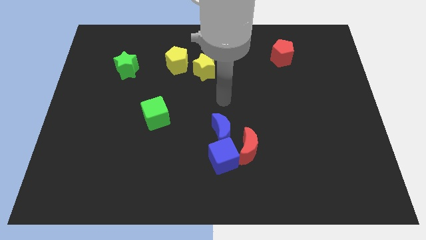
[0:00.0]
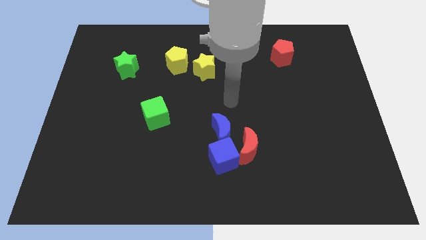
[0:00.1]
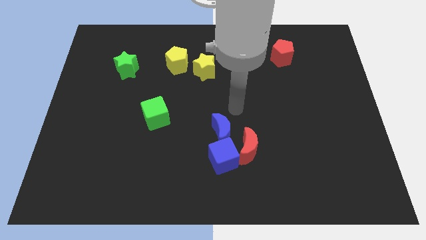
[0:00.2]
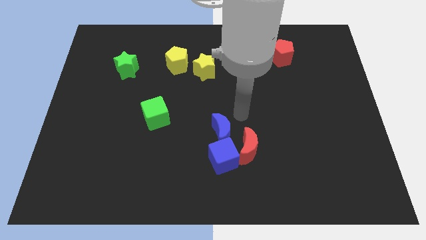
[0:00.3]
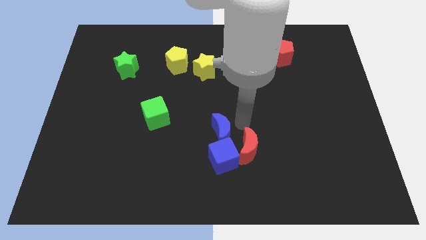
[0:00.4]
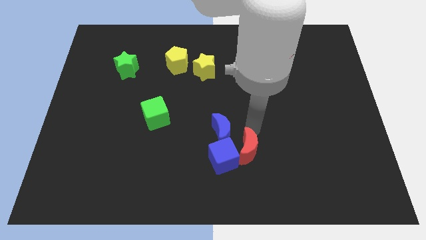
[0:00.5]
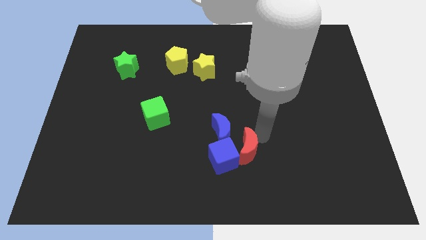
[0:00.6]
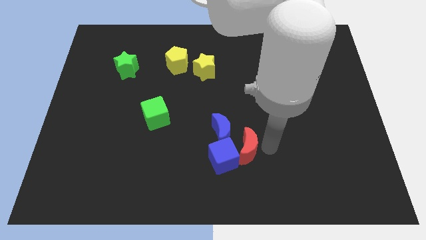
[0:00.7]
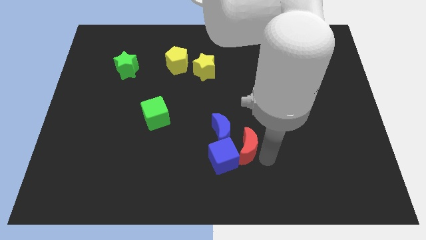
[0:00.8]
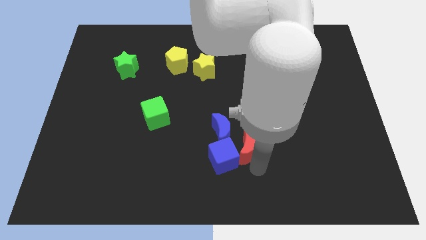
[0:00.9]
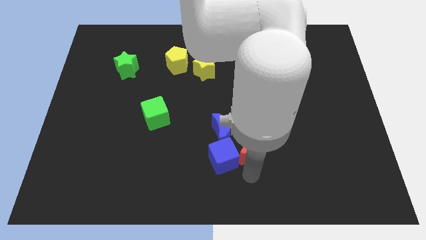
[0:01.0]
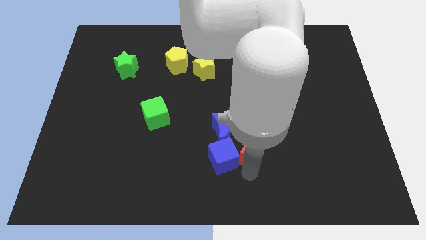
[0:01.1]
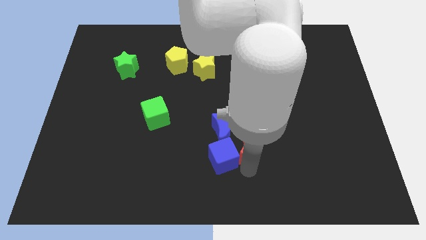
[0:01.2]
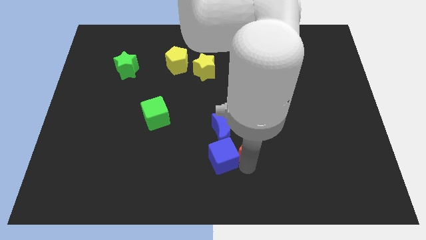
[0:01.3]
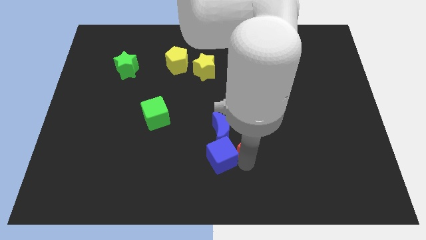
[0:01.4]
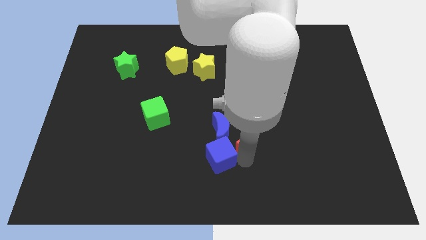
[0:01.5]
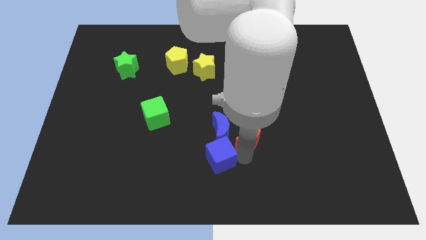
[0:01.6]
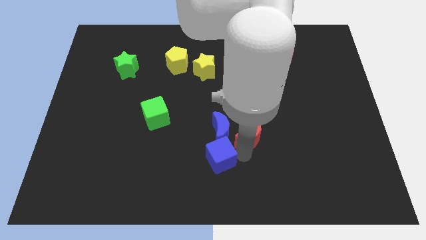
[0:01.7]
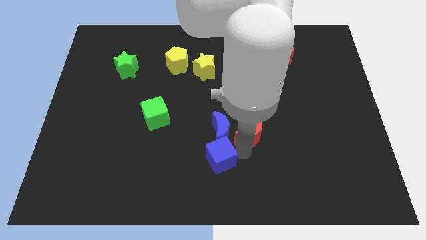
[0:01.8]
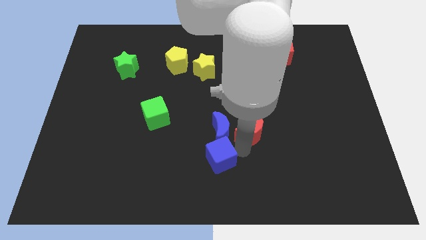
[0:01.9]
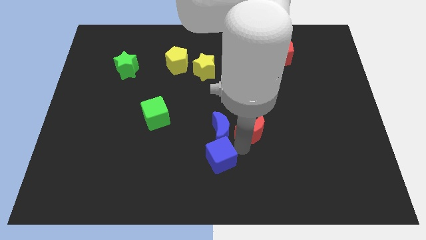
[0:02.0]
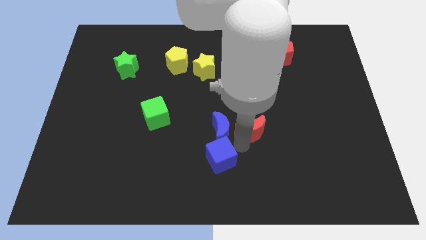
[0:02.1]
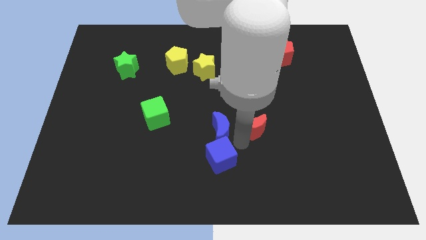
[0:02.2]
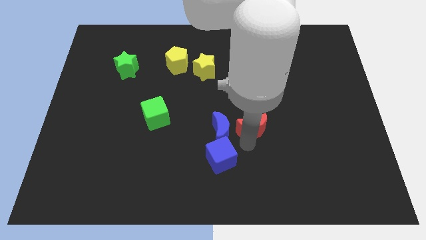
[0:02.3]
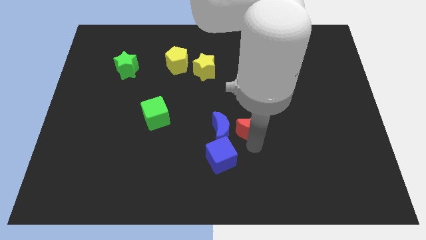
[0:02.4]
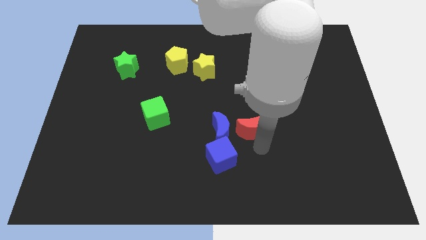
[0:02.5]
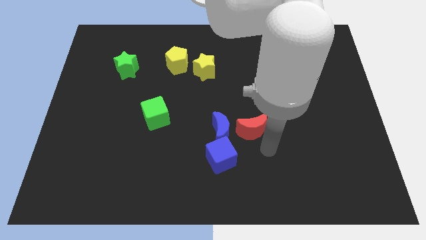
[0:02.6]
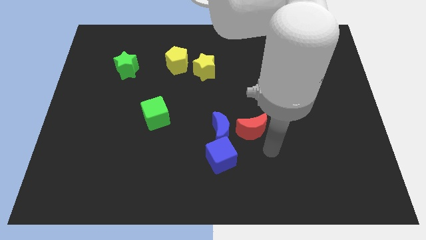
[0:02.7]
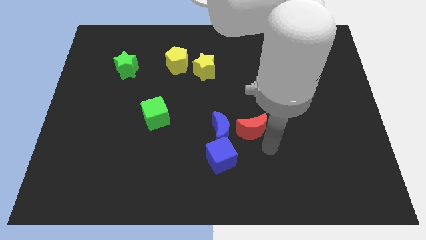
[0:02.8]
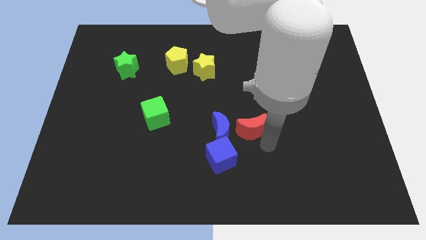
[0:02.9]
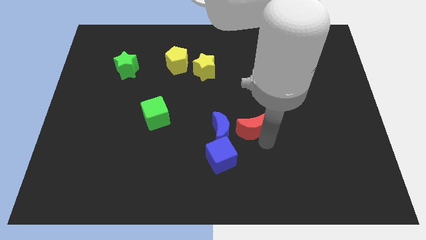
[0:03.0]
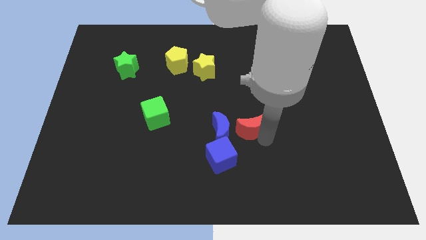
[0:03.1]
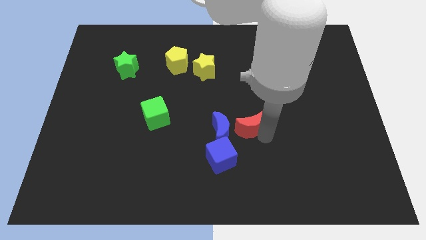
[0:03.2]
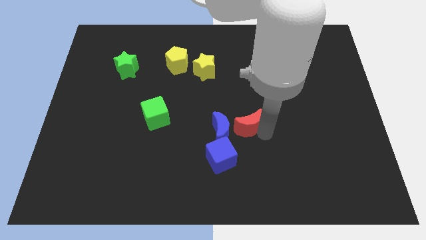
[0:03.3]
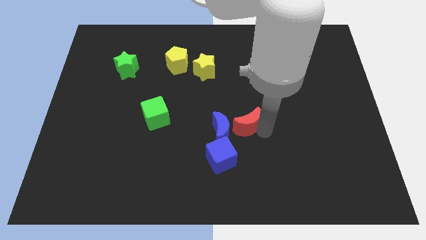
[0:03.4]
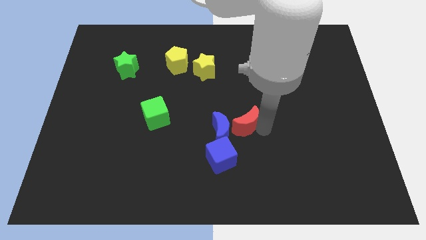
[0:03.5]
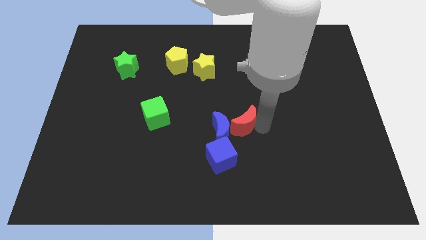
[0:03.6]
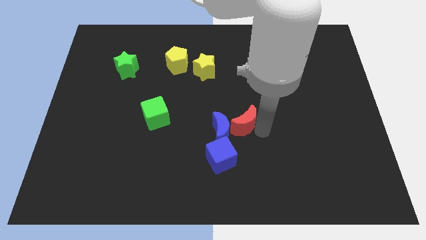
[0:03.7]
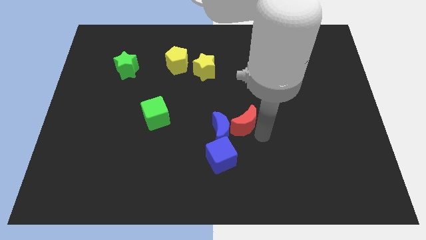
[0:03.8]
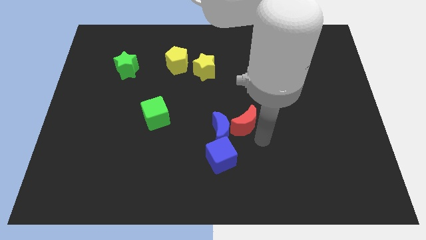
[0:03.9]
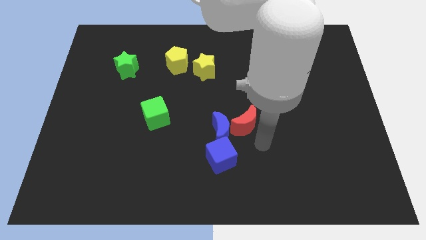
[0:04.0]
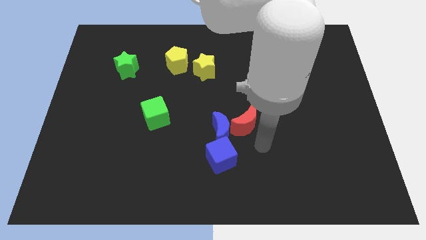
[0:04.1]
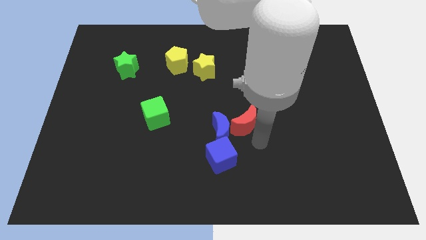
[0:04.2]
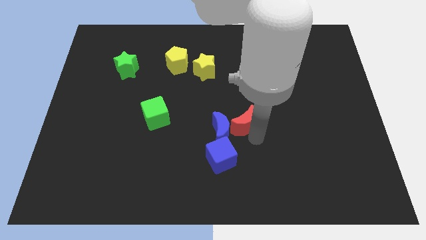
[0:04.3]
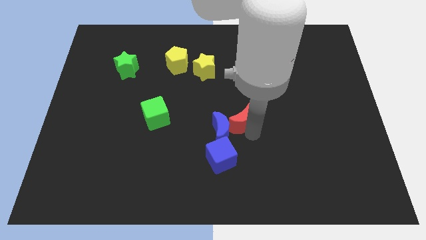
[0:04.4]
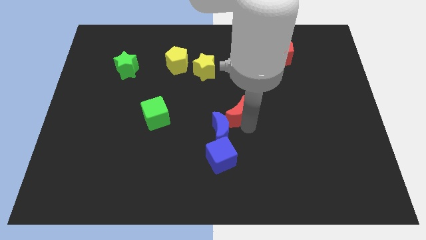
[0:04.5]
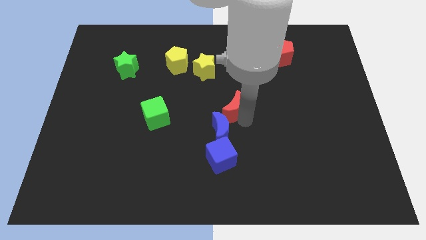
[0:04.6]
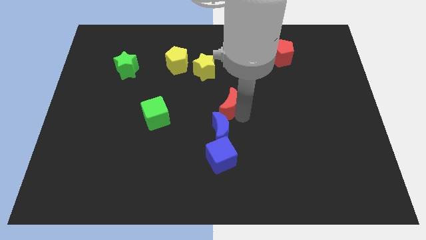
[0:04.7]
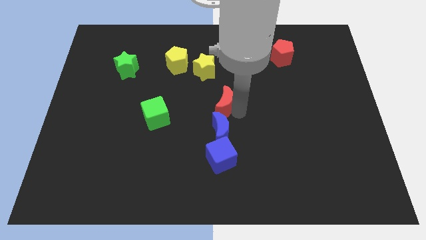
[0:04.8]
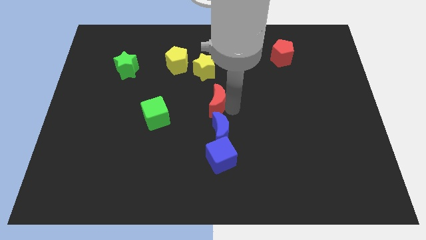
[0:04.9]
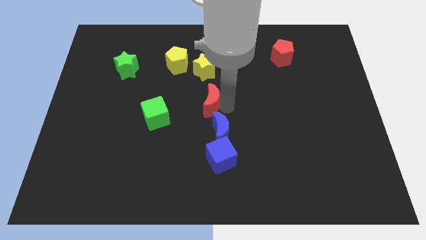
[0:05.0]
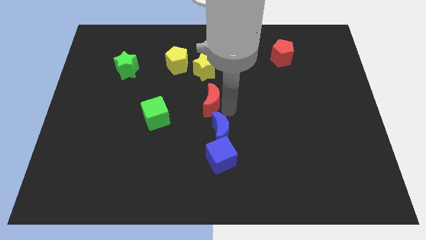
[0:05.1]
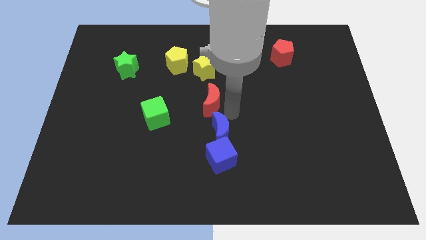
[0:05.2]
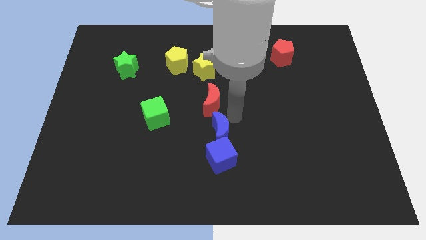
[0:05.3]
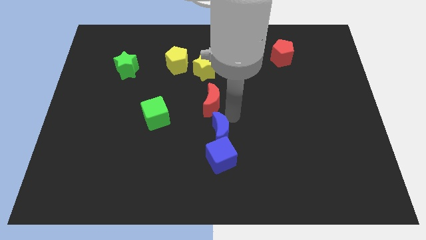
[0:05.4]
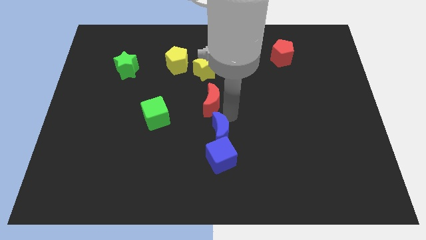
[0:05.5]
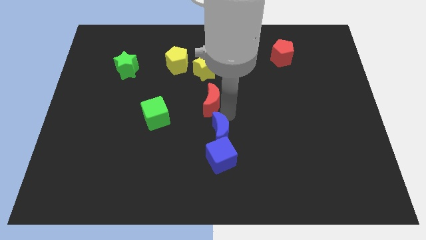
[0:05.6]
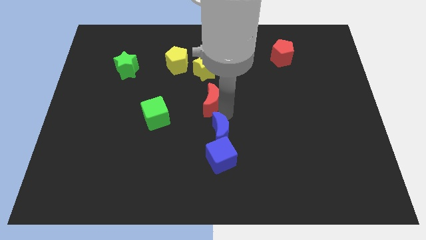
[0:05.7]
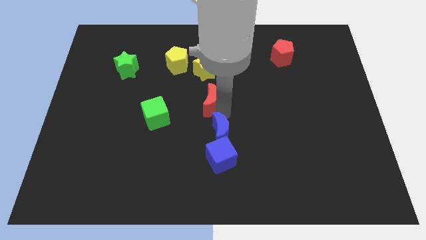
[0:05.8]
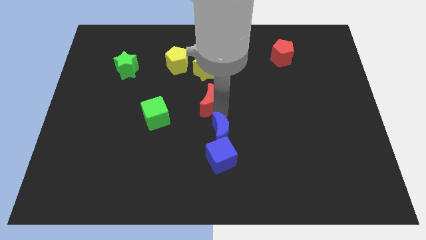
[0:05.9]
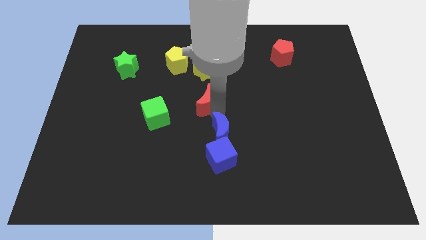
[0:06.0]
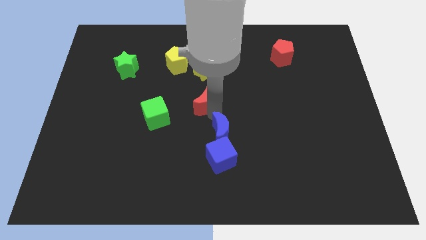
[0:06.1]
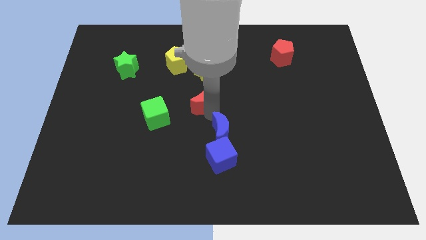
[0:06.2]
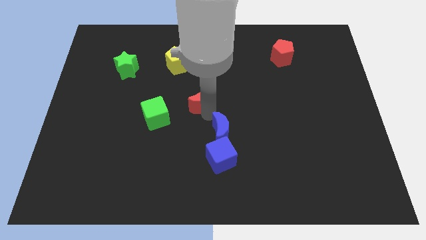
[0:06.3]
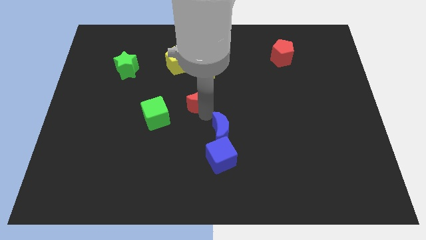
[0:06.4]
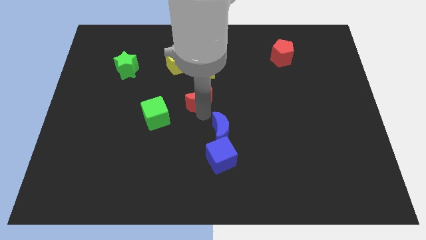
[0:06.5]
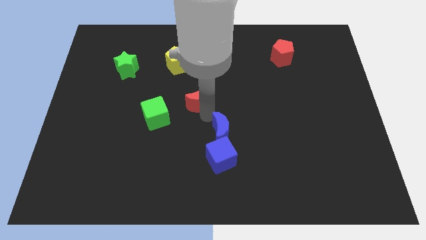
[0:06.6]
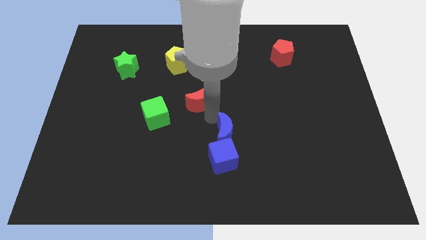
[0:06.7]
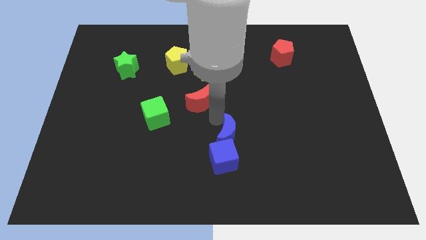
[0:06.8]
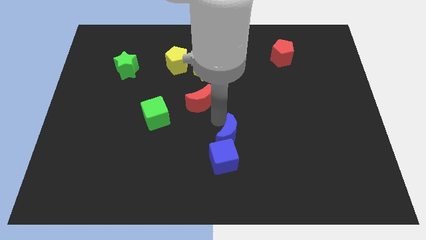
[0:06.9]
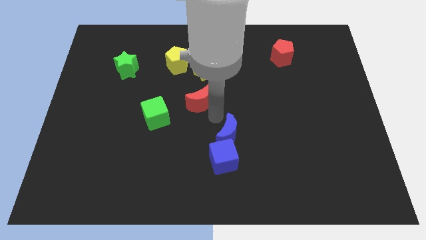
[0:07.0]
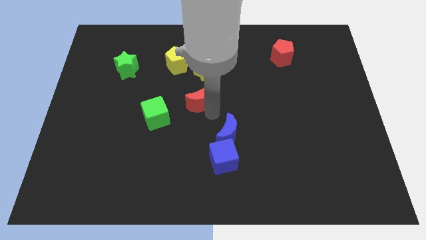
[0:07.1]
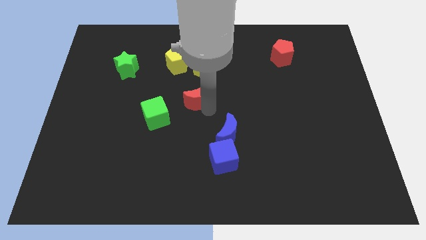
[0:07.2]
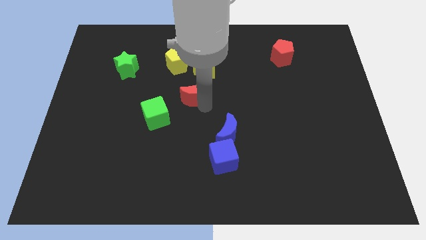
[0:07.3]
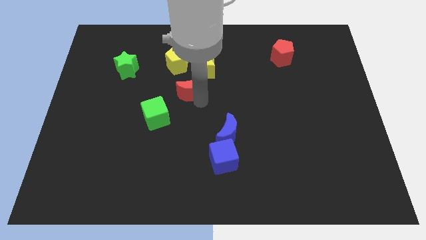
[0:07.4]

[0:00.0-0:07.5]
slide the red moon up and then to the left

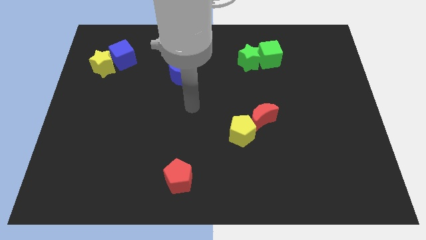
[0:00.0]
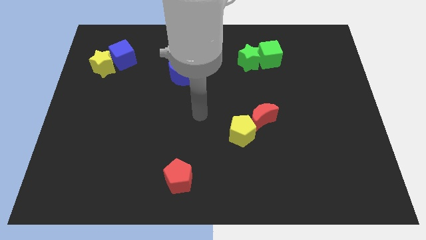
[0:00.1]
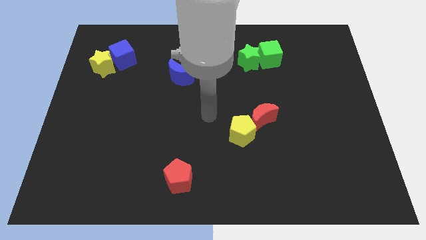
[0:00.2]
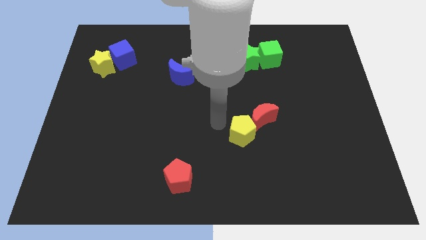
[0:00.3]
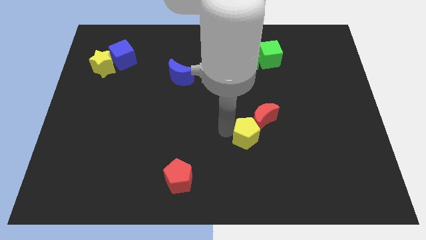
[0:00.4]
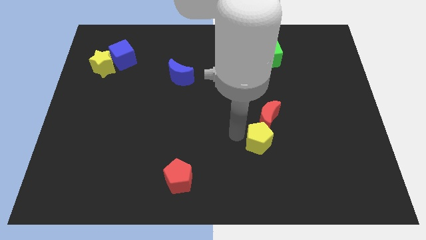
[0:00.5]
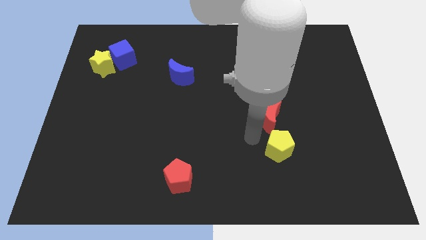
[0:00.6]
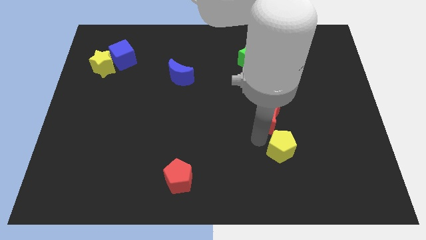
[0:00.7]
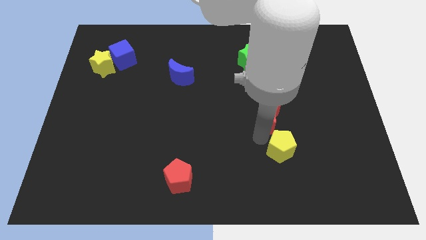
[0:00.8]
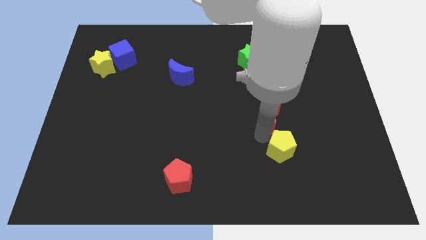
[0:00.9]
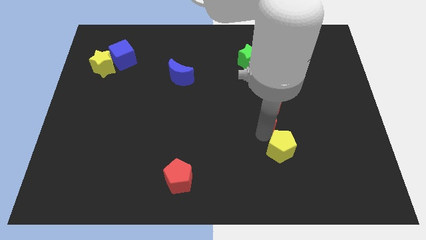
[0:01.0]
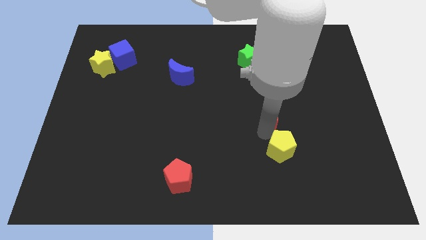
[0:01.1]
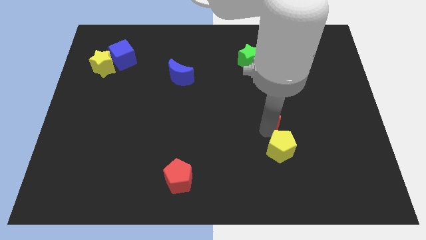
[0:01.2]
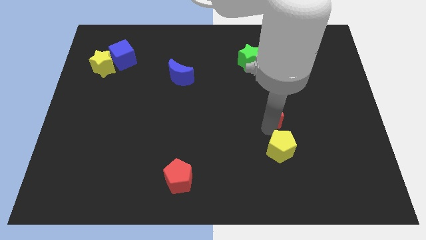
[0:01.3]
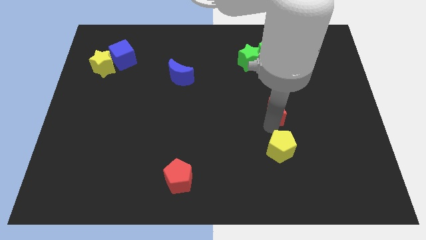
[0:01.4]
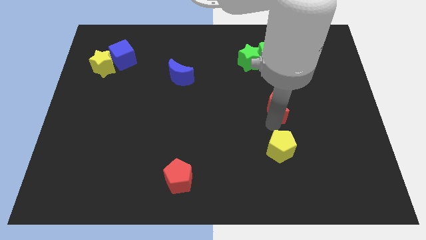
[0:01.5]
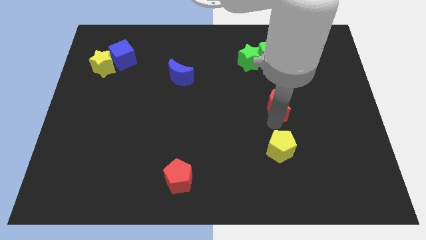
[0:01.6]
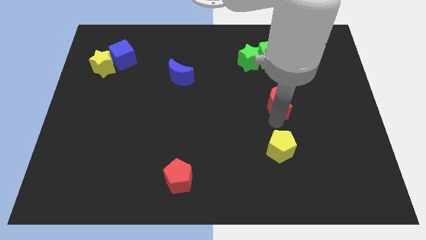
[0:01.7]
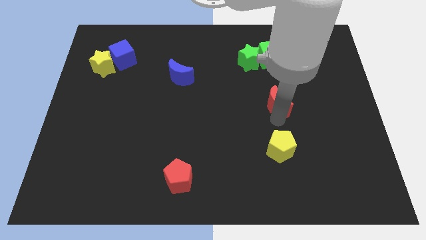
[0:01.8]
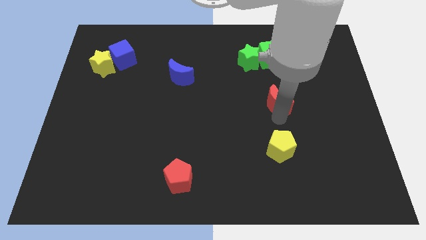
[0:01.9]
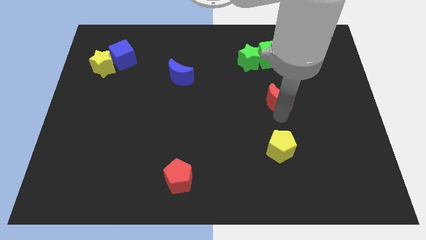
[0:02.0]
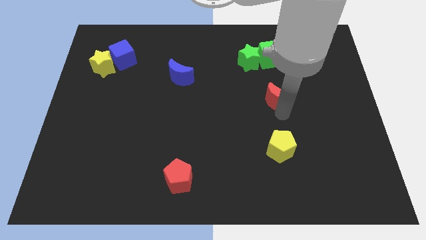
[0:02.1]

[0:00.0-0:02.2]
move the red moon diagonally up and to the right a little
